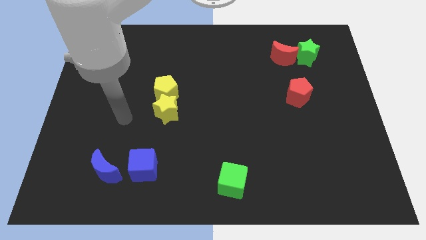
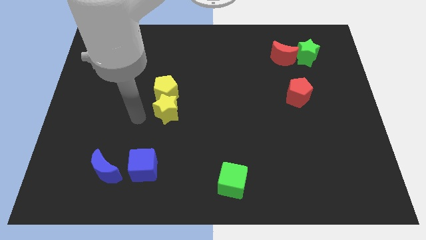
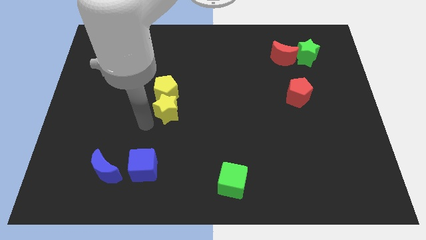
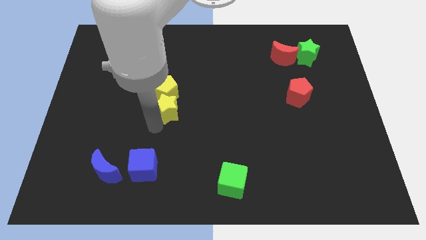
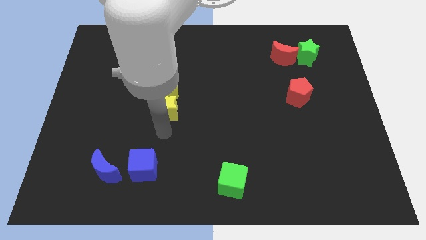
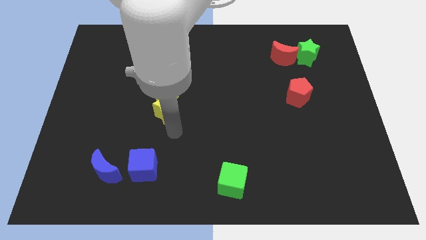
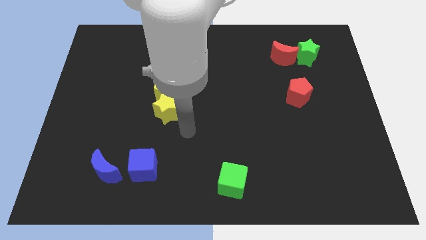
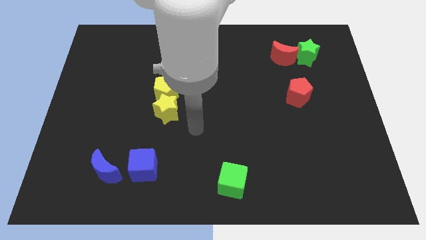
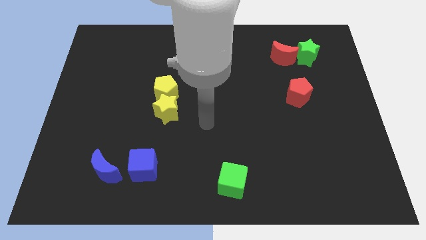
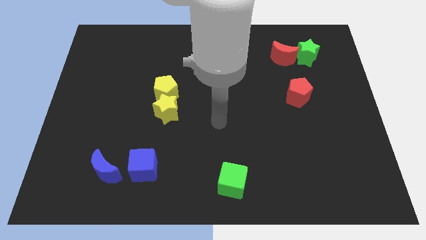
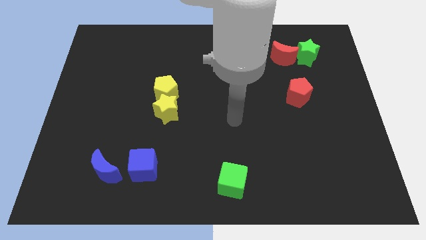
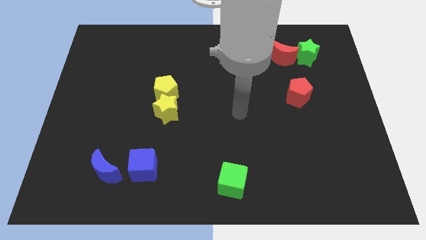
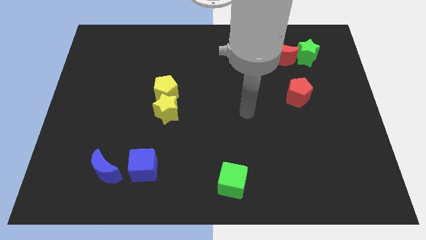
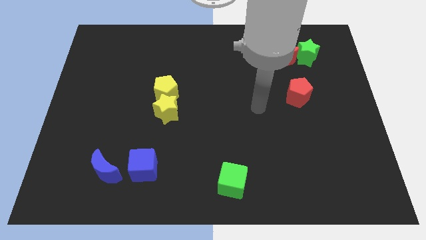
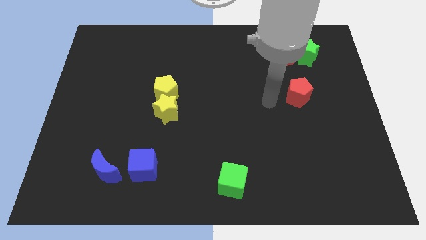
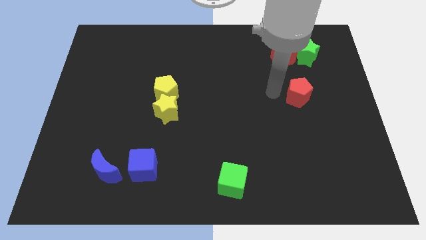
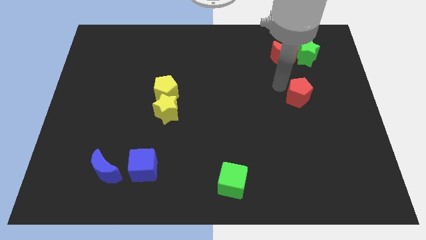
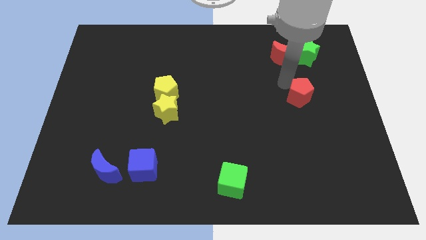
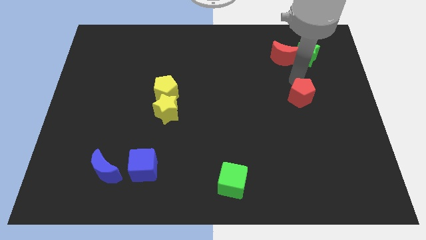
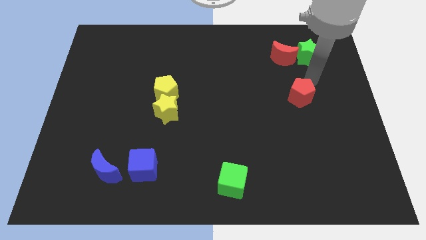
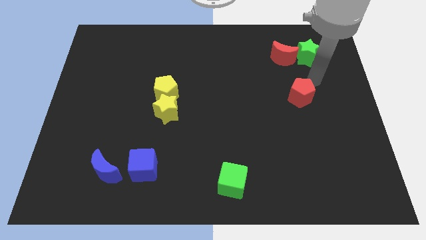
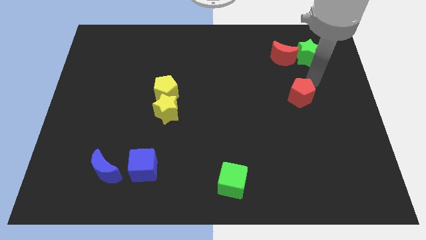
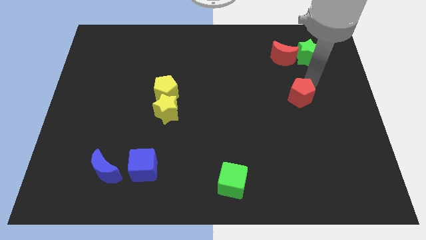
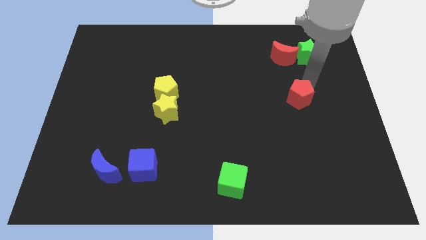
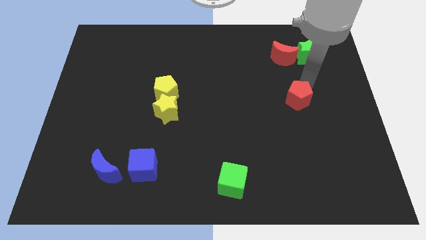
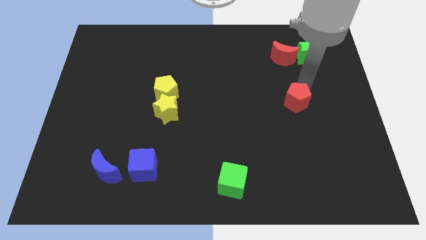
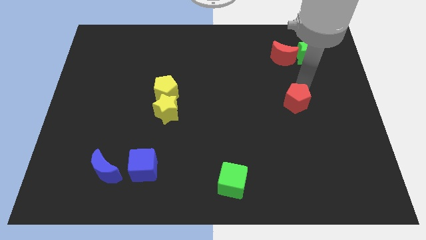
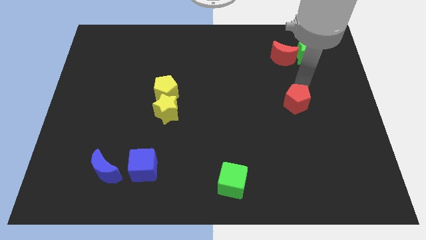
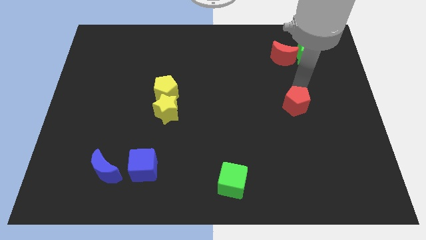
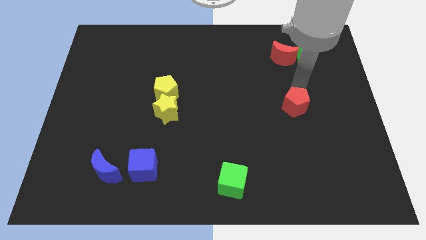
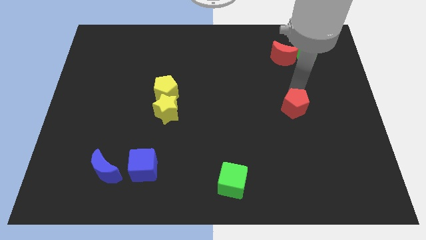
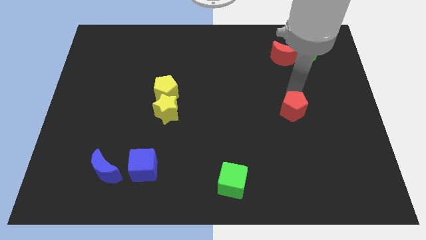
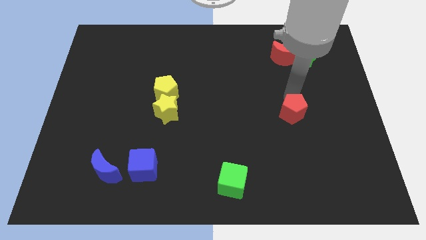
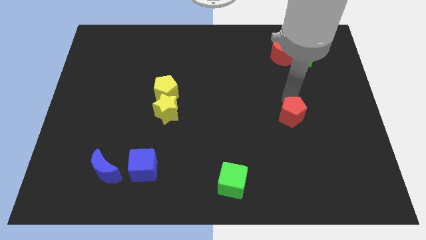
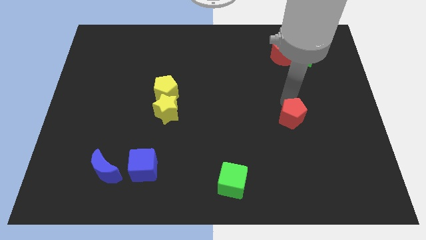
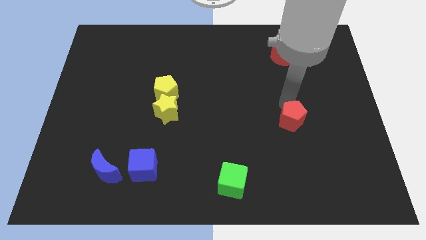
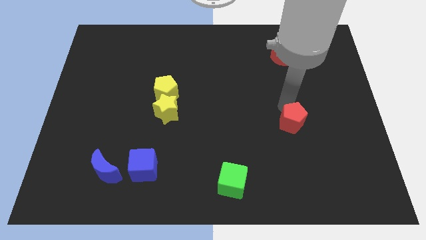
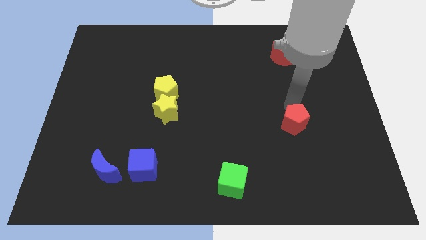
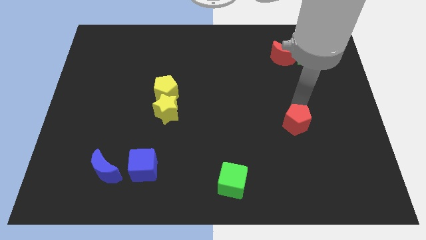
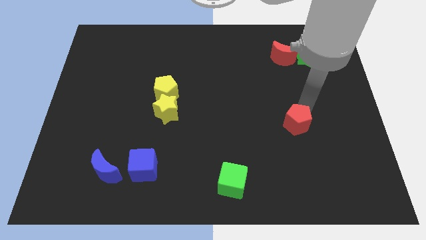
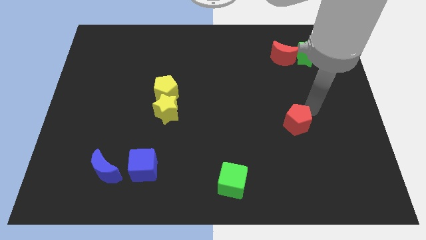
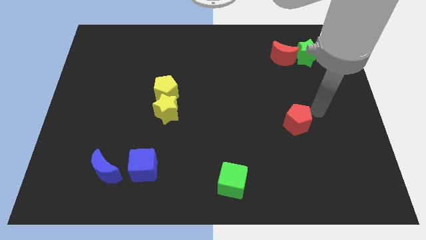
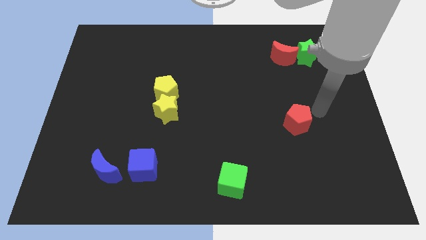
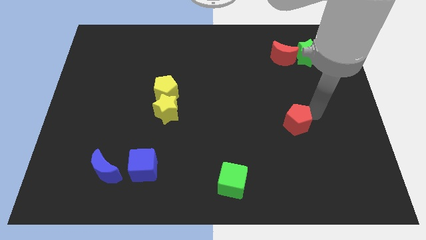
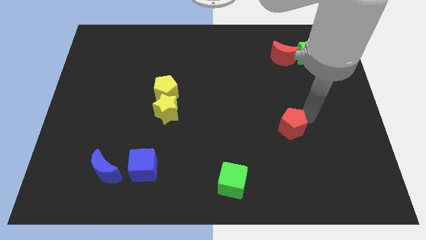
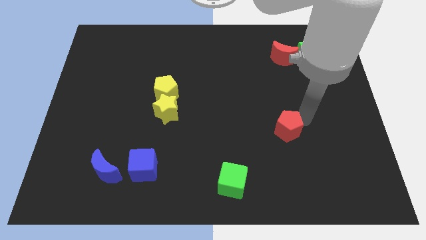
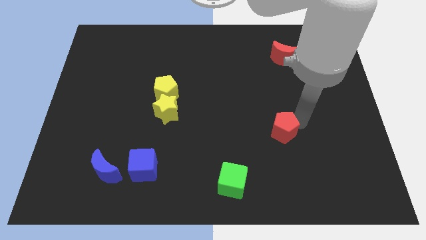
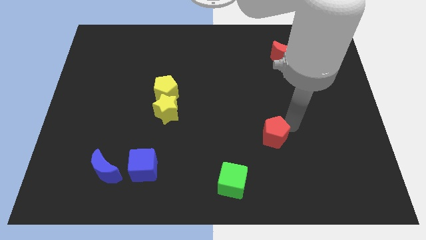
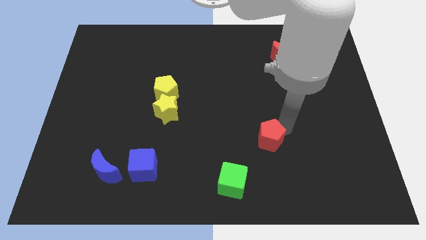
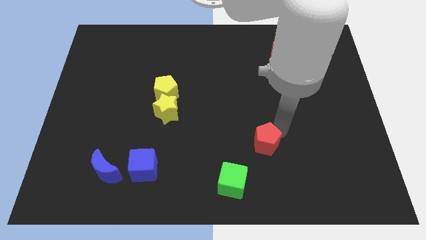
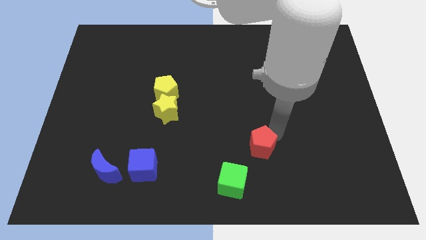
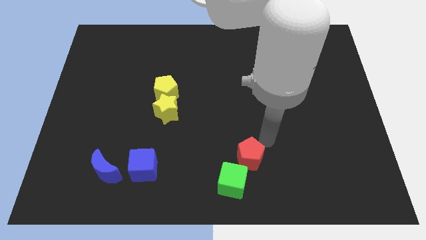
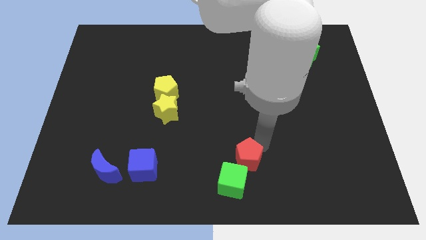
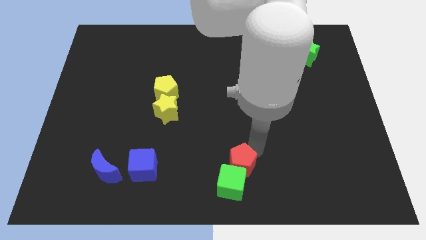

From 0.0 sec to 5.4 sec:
slide the red pentagon towards the green cube

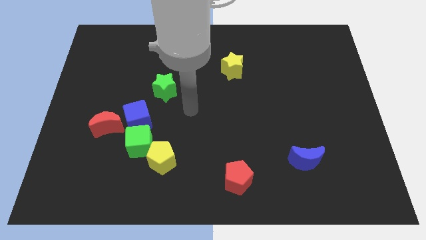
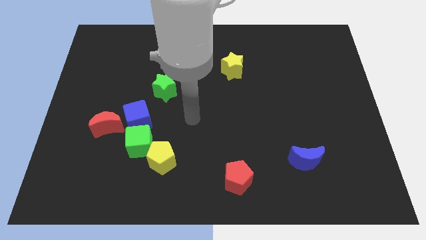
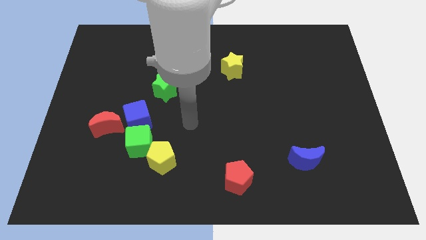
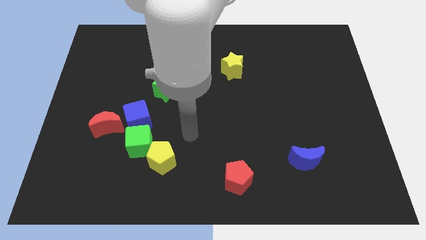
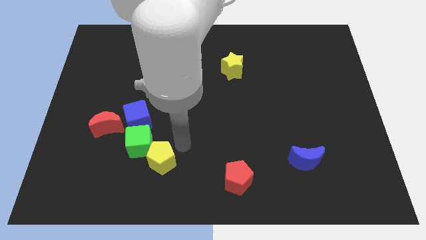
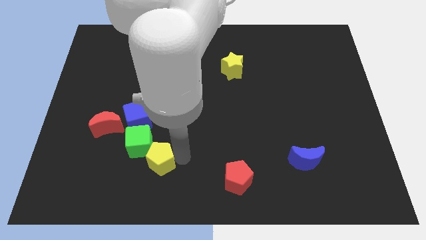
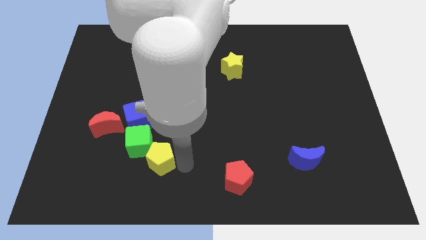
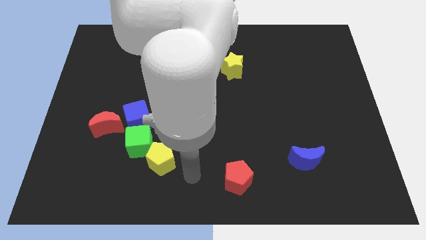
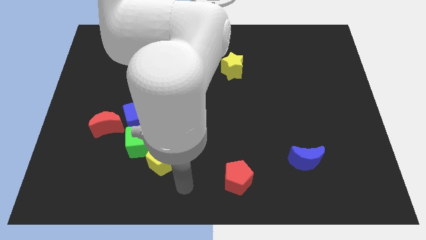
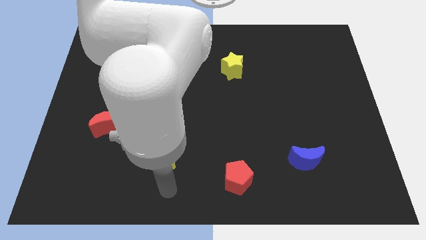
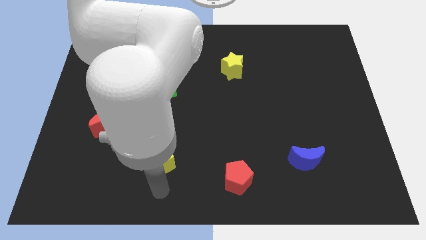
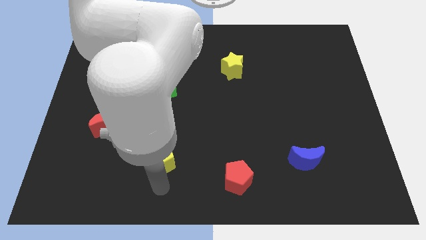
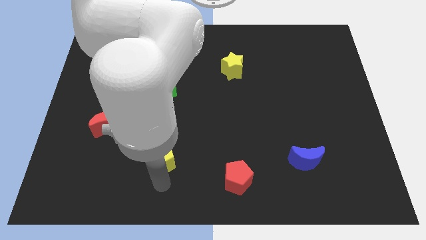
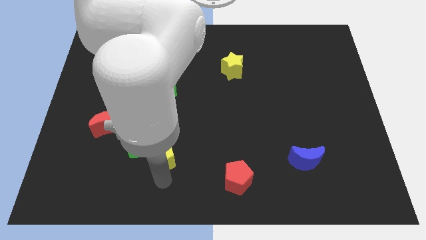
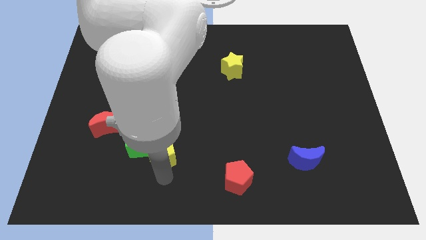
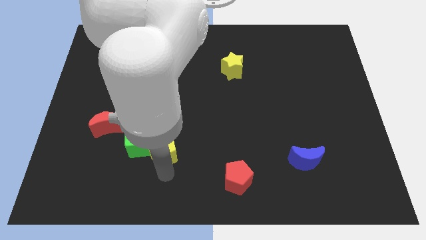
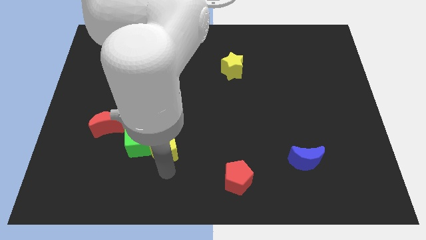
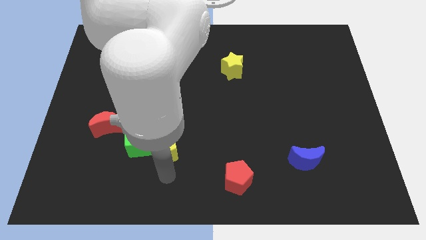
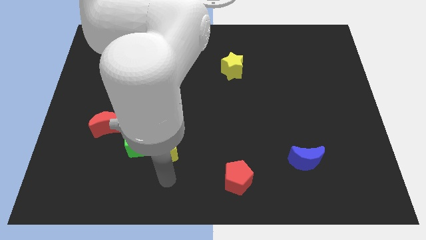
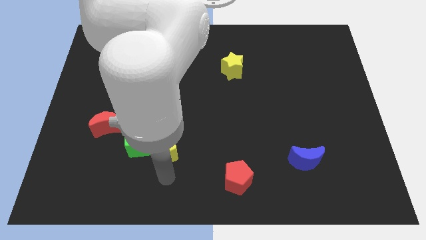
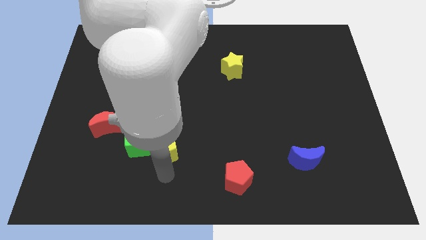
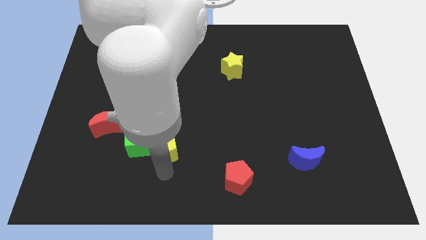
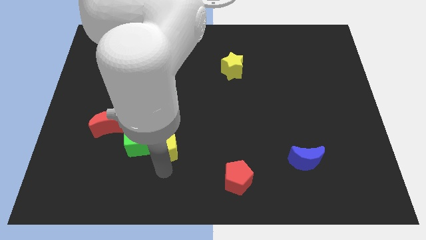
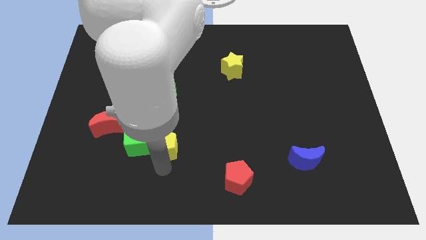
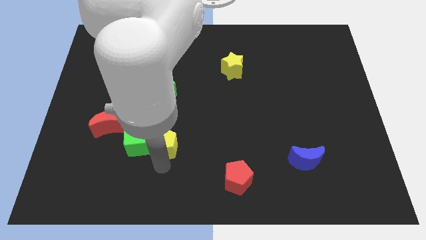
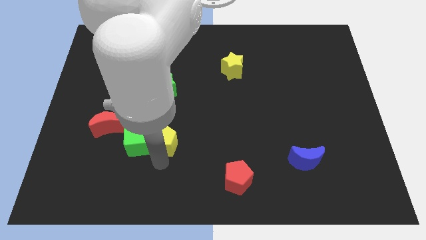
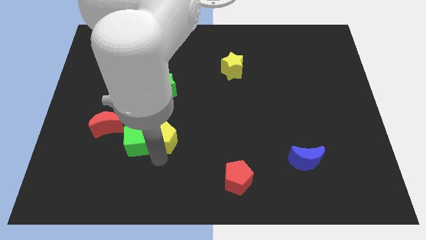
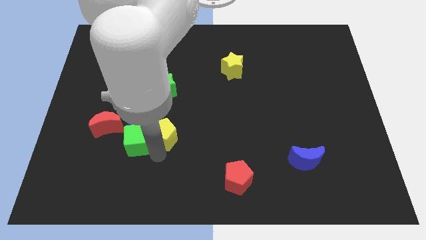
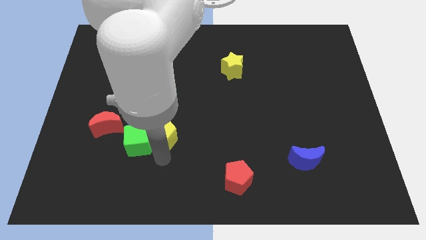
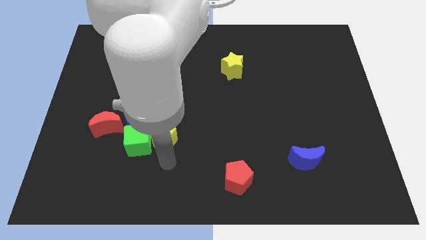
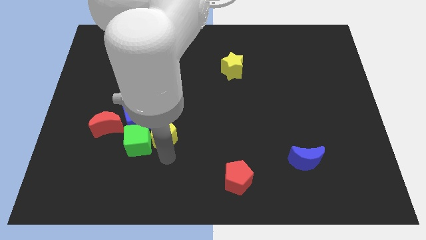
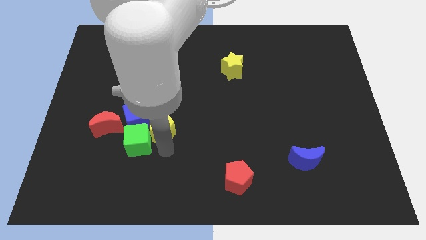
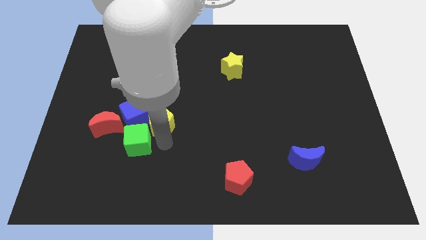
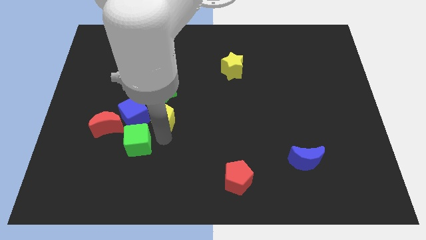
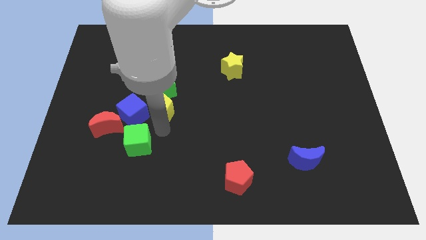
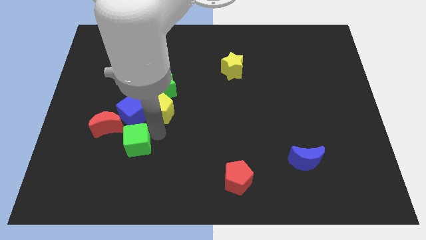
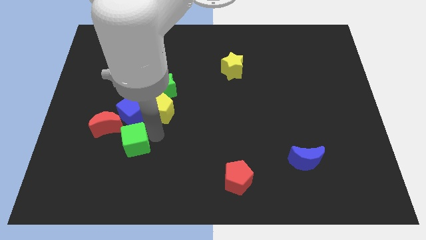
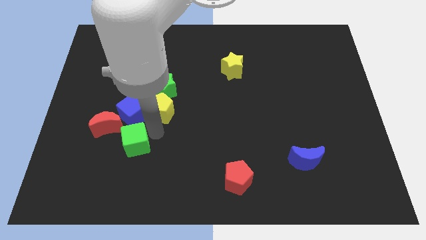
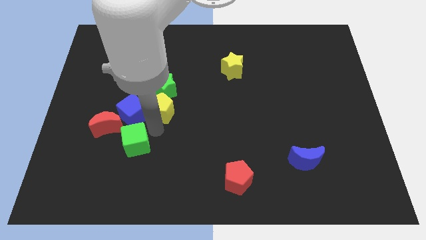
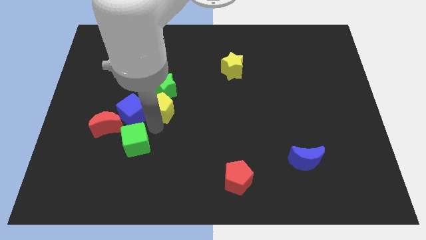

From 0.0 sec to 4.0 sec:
put the yellow pentagon close to the green star
